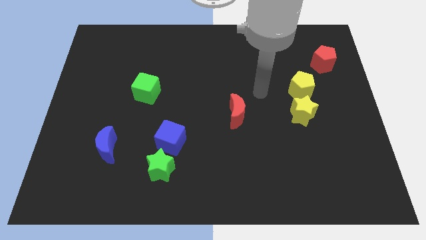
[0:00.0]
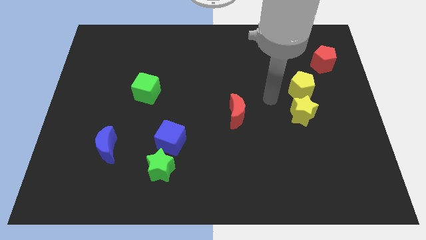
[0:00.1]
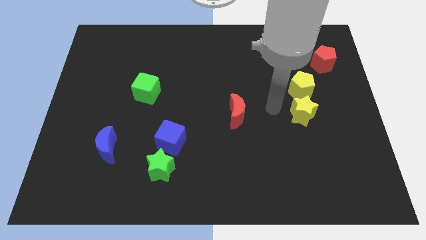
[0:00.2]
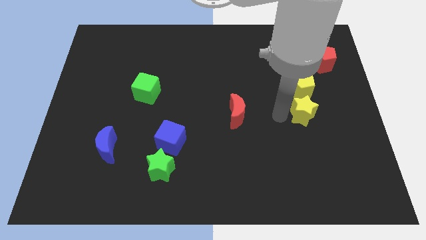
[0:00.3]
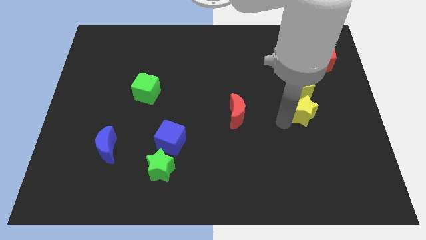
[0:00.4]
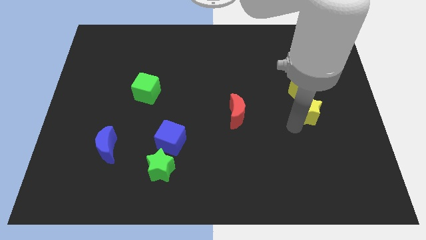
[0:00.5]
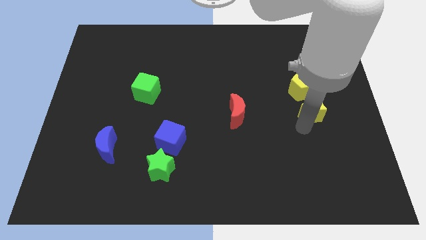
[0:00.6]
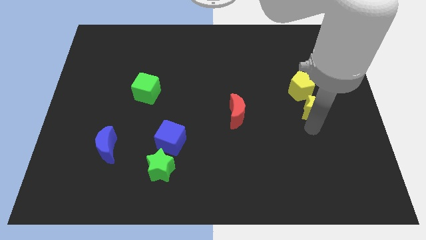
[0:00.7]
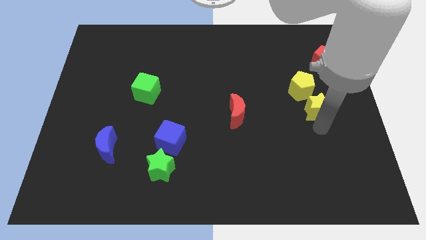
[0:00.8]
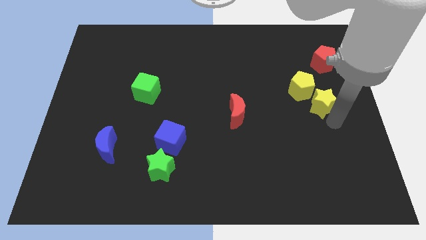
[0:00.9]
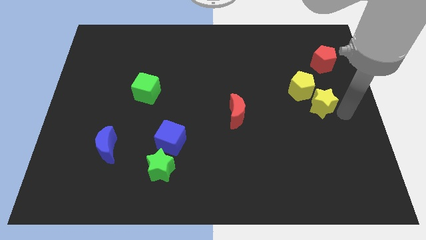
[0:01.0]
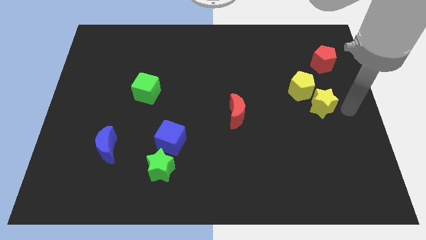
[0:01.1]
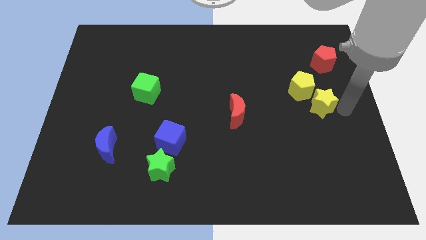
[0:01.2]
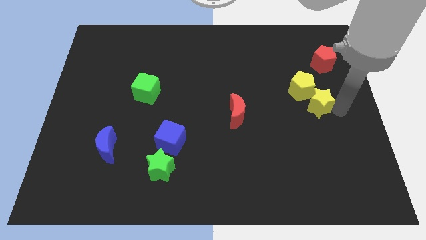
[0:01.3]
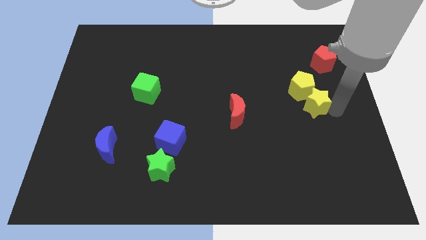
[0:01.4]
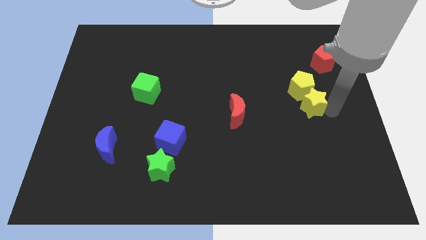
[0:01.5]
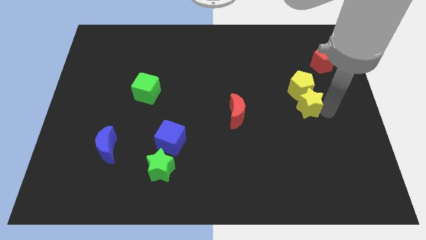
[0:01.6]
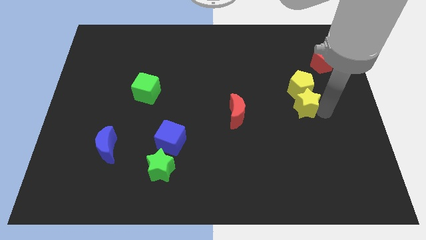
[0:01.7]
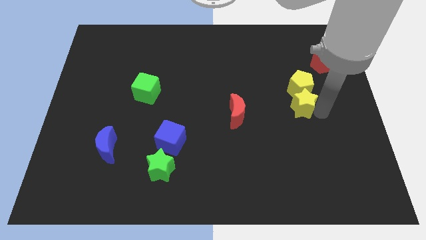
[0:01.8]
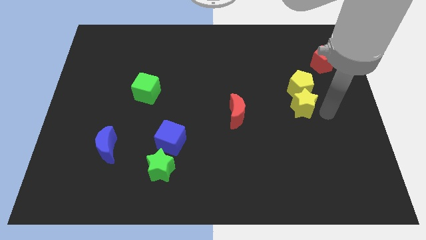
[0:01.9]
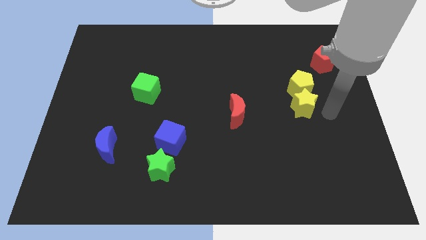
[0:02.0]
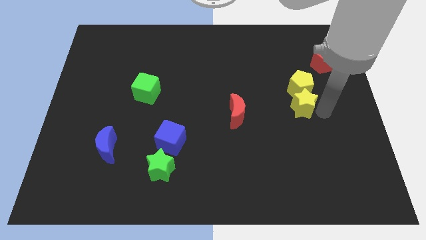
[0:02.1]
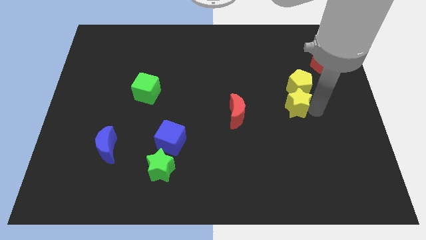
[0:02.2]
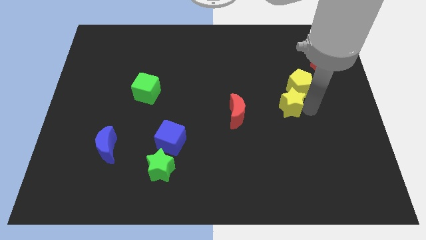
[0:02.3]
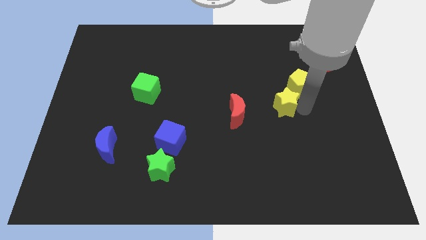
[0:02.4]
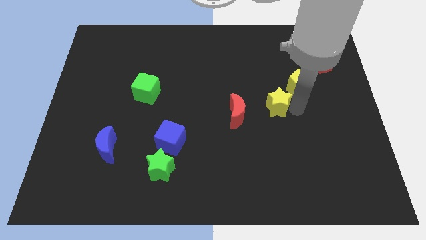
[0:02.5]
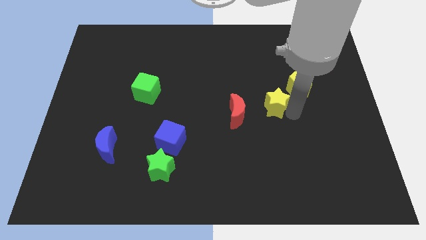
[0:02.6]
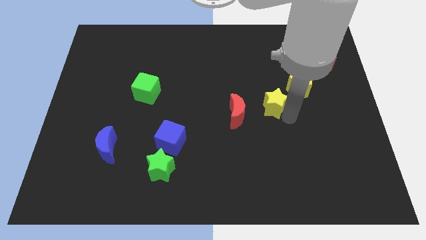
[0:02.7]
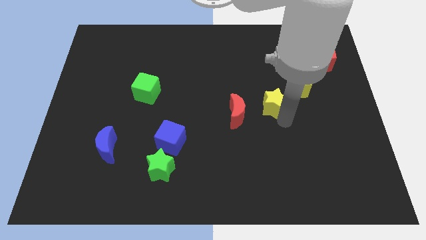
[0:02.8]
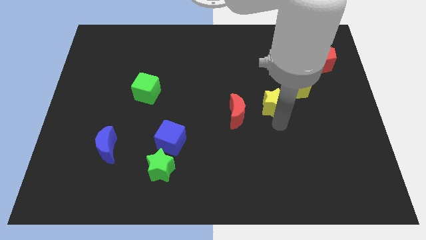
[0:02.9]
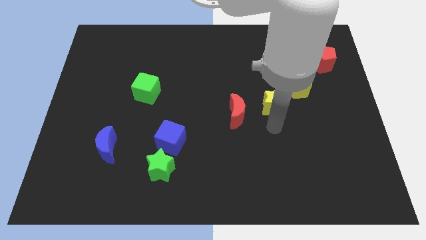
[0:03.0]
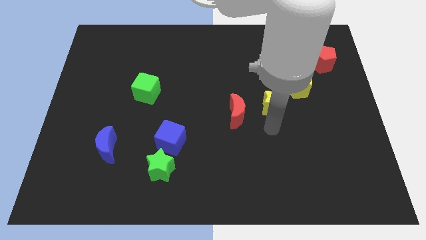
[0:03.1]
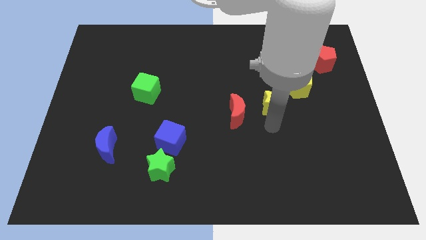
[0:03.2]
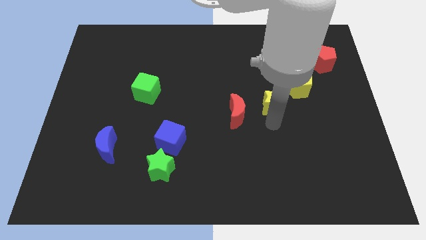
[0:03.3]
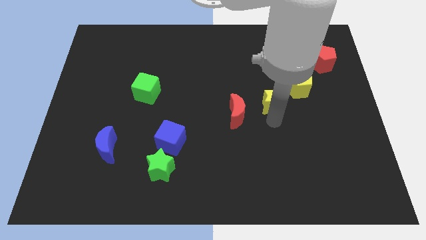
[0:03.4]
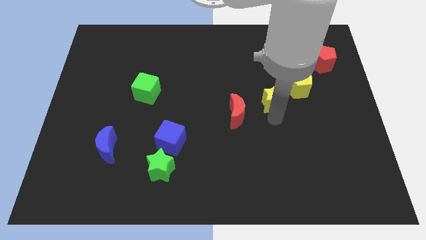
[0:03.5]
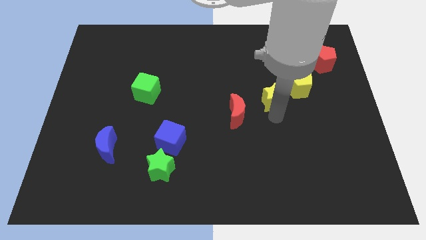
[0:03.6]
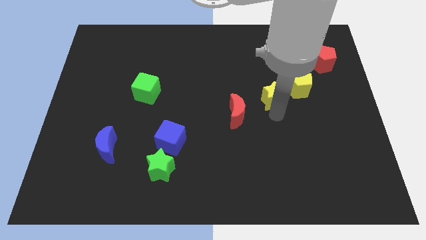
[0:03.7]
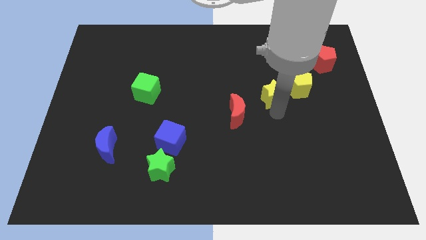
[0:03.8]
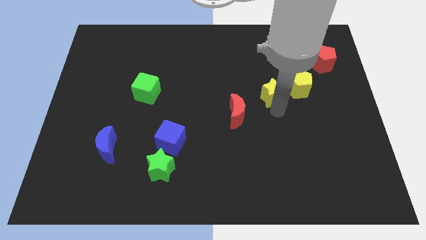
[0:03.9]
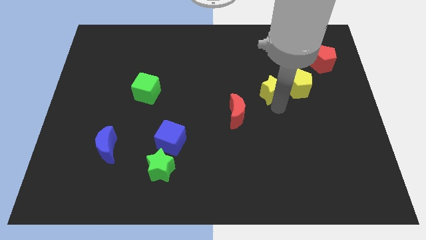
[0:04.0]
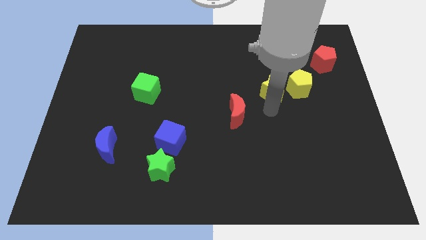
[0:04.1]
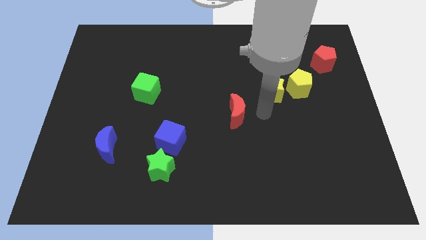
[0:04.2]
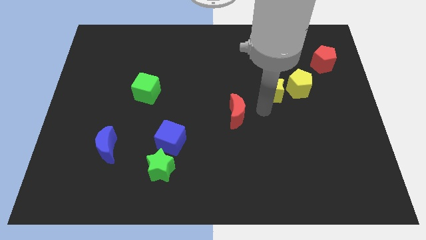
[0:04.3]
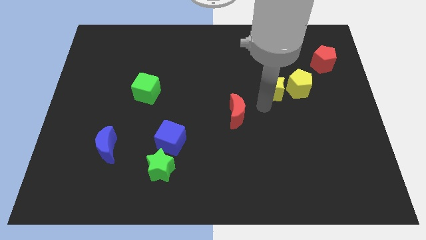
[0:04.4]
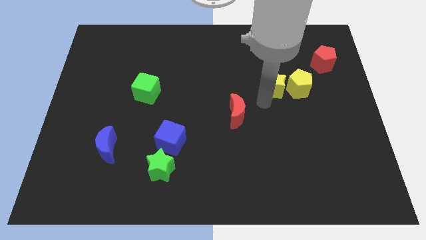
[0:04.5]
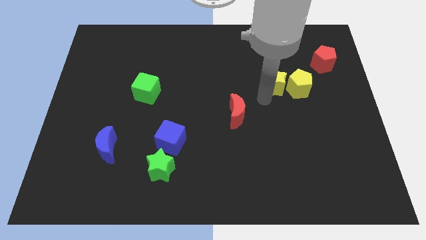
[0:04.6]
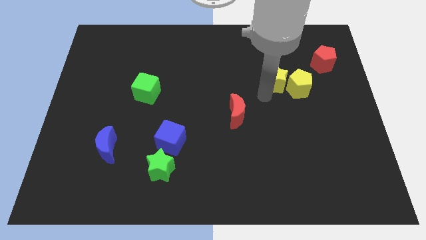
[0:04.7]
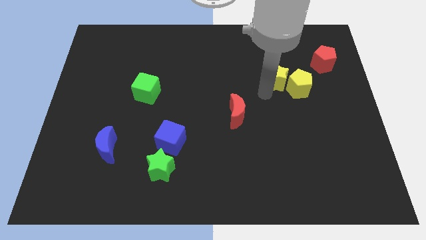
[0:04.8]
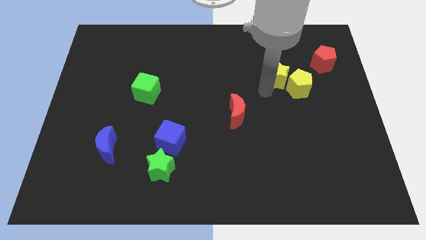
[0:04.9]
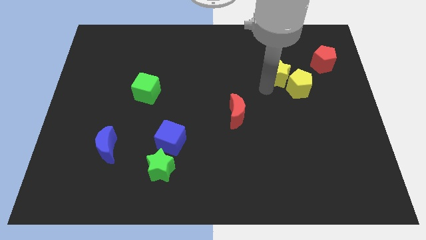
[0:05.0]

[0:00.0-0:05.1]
move the yellow star just left of the red pentagon

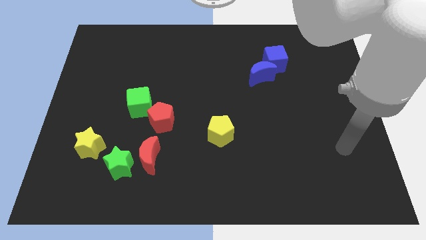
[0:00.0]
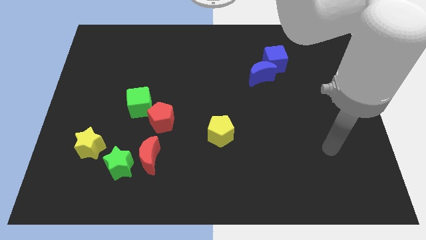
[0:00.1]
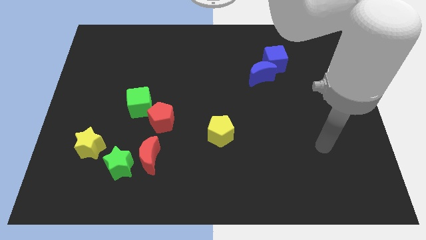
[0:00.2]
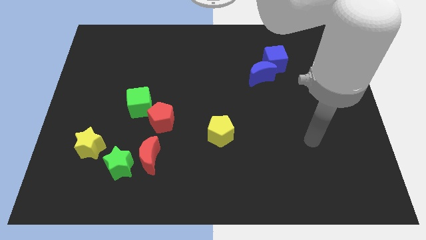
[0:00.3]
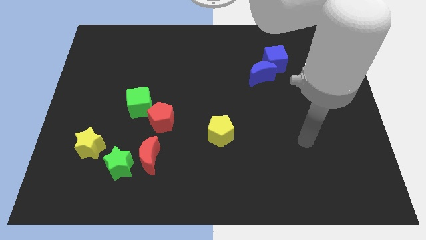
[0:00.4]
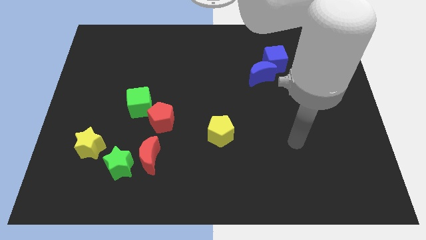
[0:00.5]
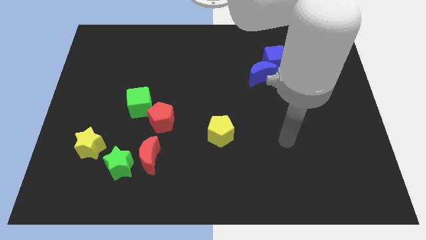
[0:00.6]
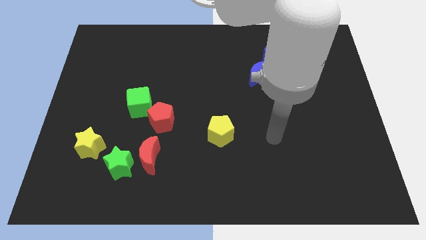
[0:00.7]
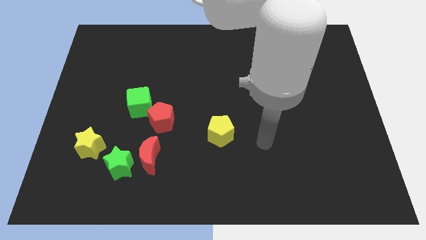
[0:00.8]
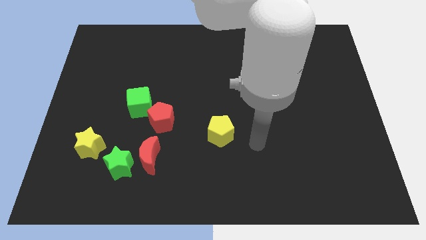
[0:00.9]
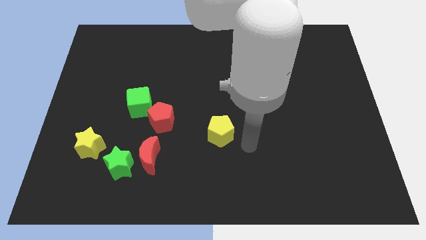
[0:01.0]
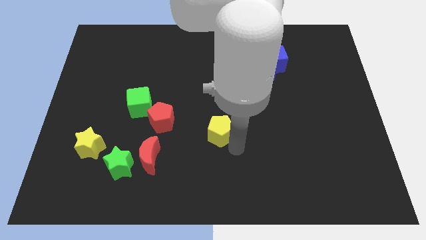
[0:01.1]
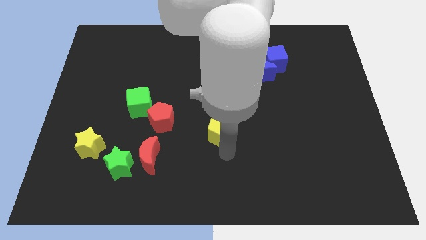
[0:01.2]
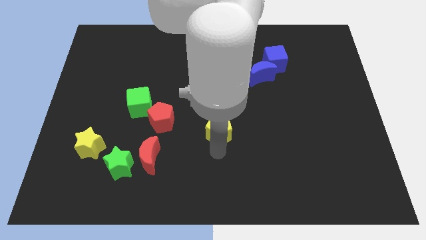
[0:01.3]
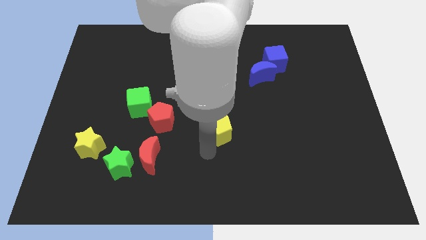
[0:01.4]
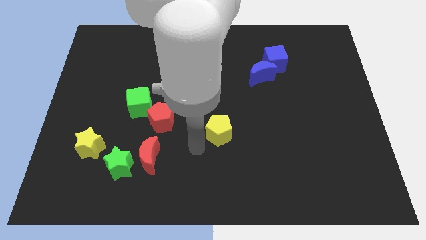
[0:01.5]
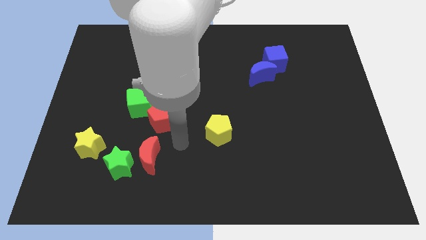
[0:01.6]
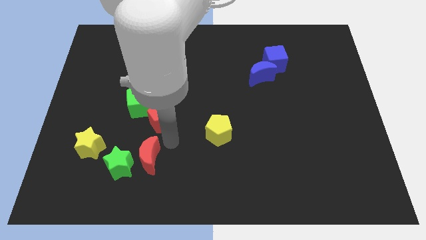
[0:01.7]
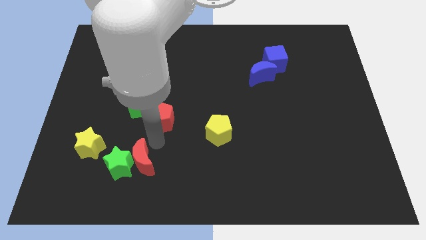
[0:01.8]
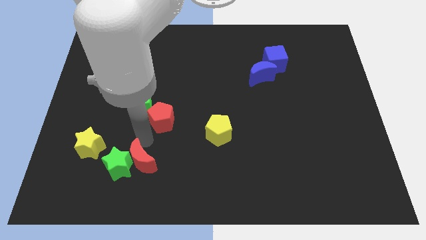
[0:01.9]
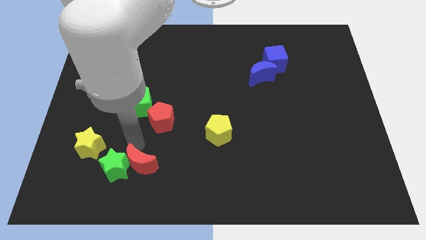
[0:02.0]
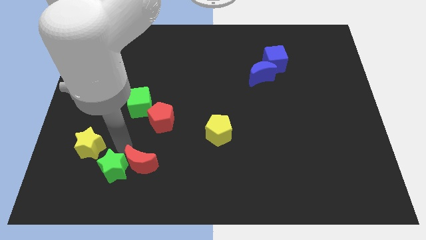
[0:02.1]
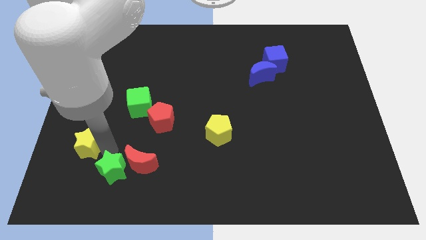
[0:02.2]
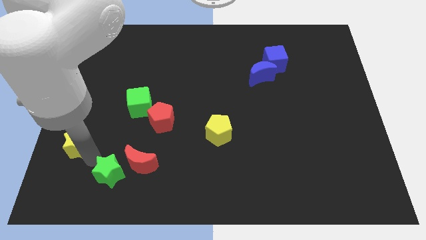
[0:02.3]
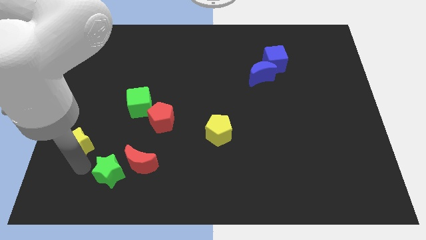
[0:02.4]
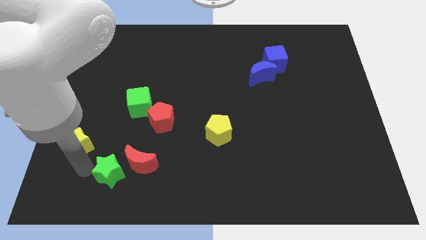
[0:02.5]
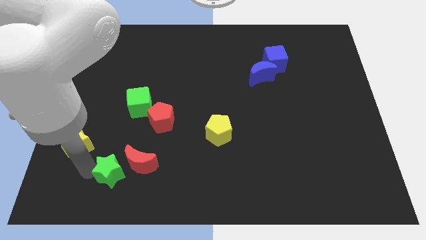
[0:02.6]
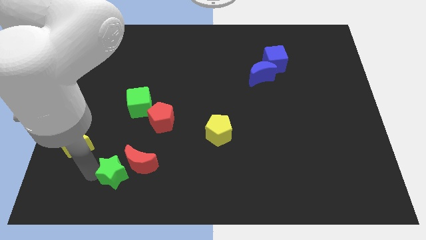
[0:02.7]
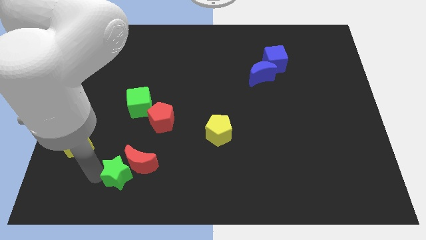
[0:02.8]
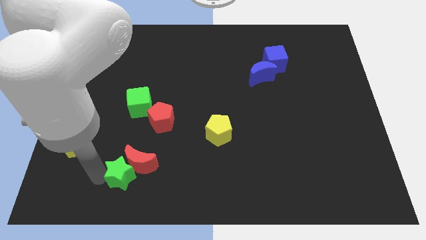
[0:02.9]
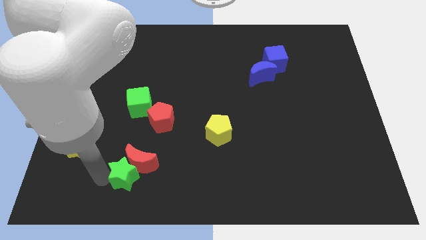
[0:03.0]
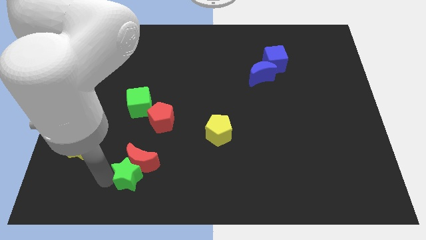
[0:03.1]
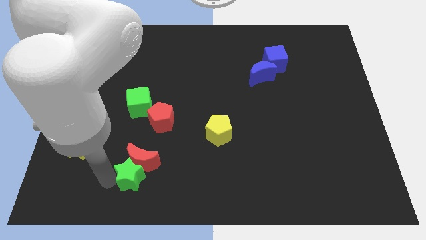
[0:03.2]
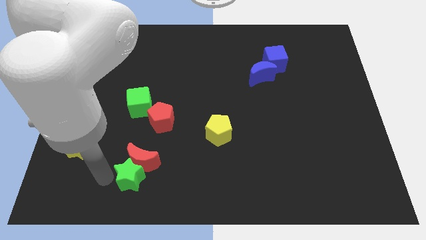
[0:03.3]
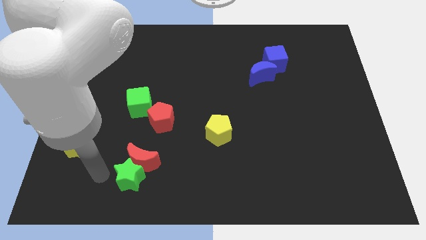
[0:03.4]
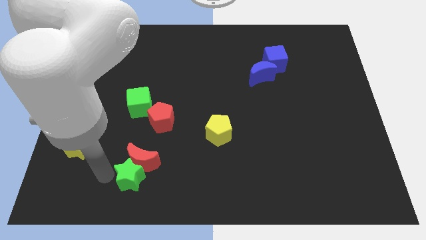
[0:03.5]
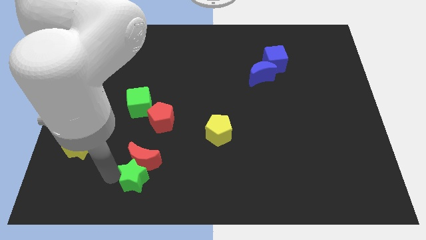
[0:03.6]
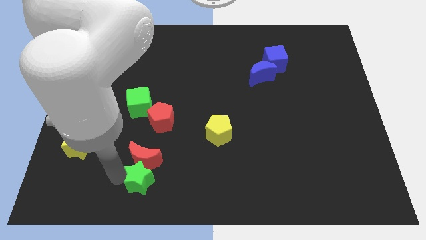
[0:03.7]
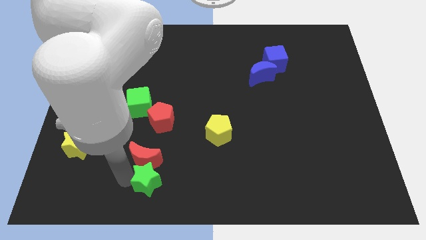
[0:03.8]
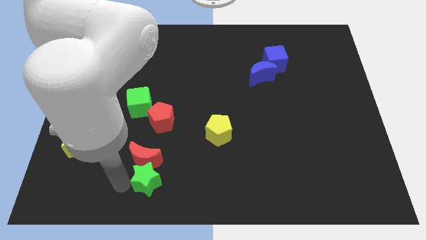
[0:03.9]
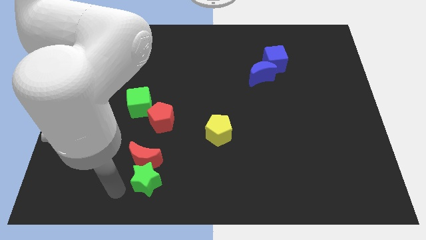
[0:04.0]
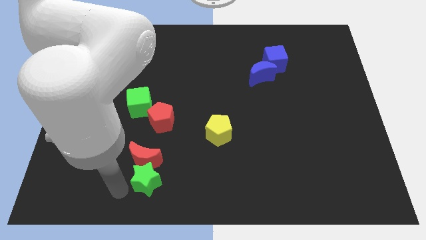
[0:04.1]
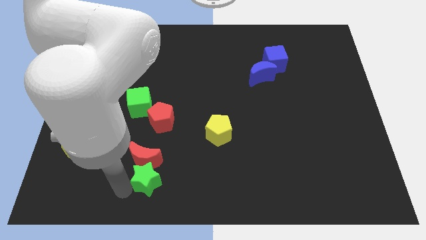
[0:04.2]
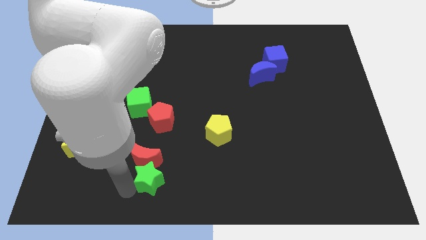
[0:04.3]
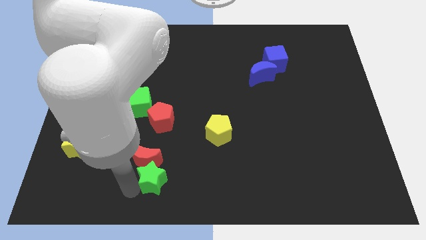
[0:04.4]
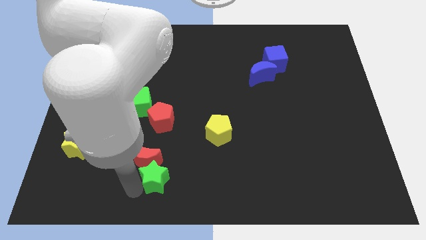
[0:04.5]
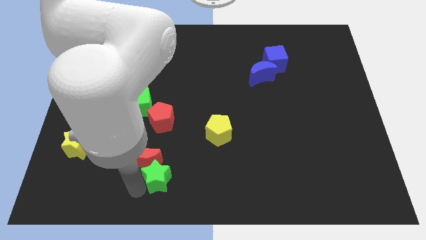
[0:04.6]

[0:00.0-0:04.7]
put the green star right of the red moon
